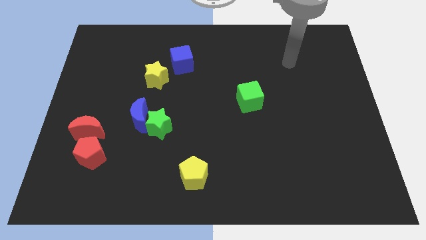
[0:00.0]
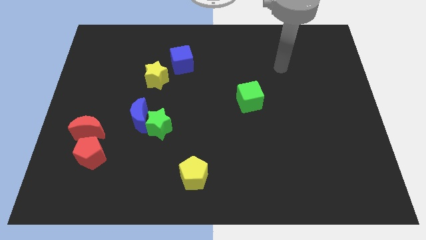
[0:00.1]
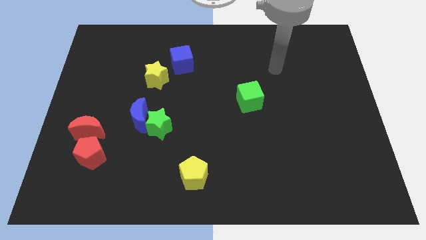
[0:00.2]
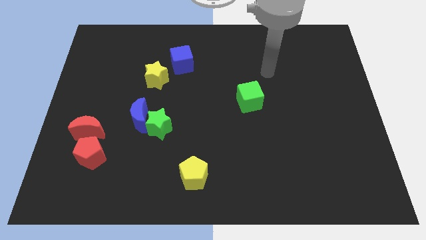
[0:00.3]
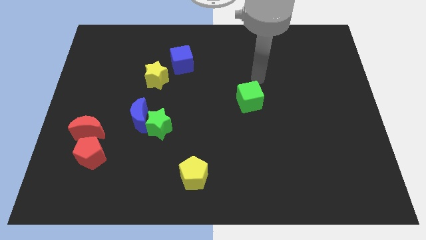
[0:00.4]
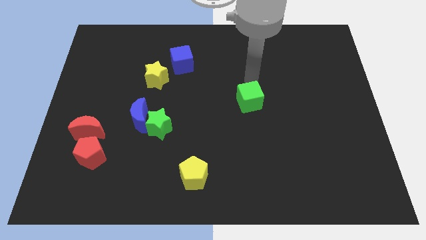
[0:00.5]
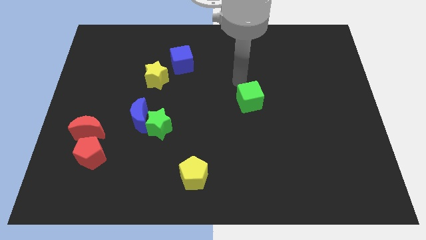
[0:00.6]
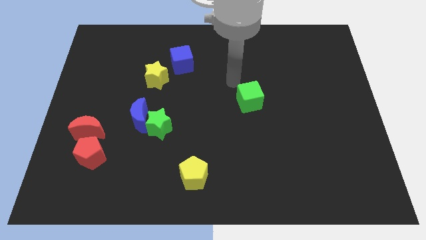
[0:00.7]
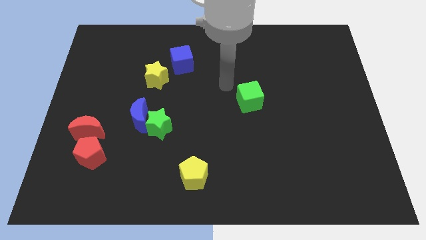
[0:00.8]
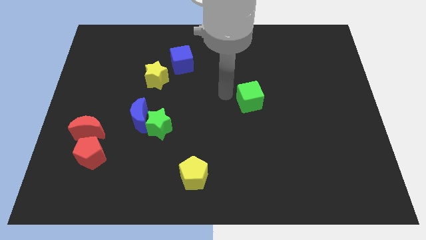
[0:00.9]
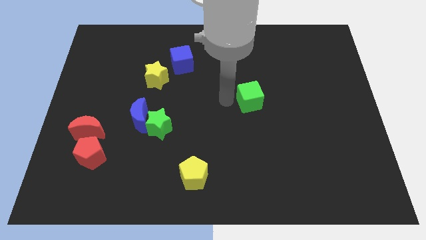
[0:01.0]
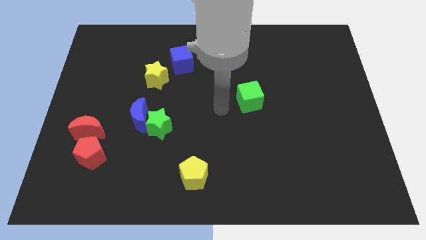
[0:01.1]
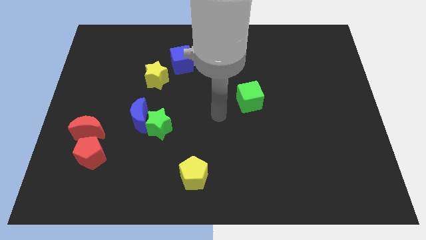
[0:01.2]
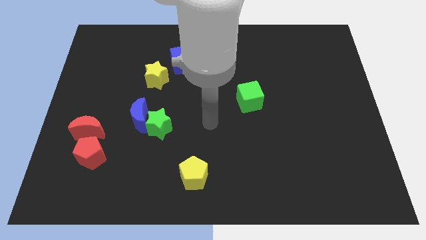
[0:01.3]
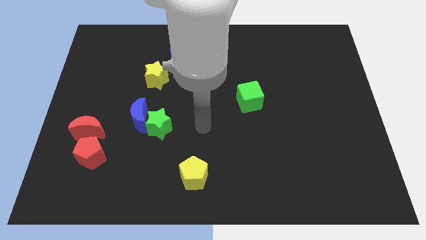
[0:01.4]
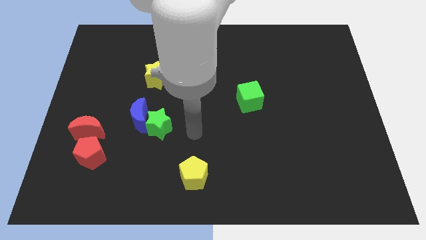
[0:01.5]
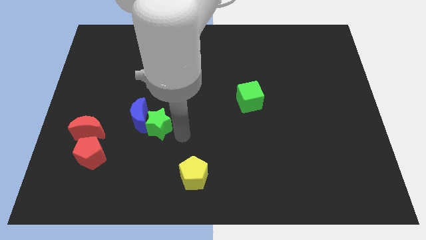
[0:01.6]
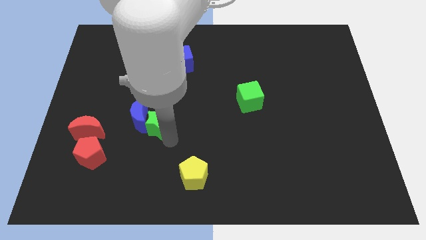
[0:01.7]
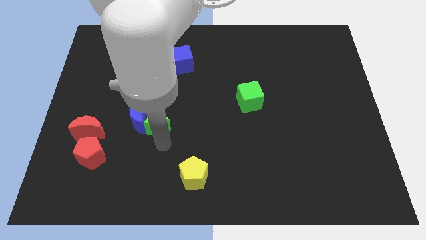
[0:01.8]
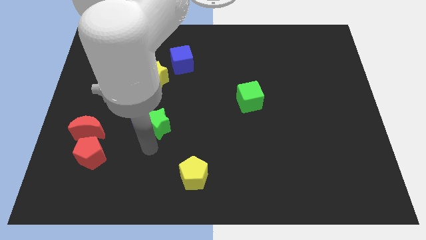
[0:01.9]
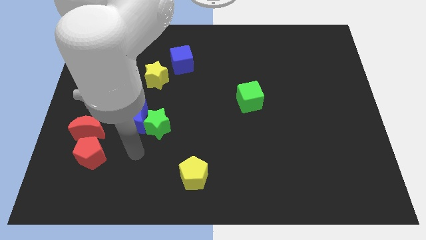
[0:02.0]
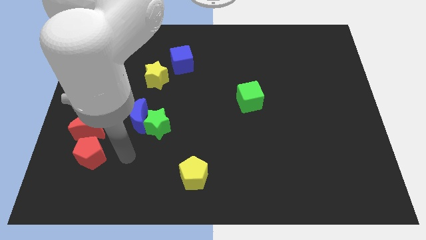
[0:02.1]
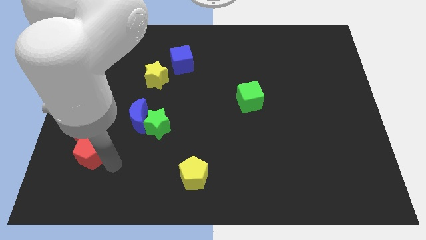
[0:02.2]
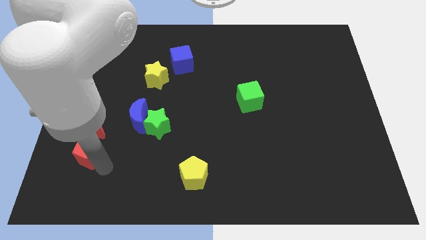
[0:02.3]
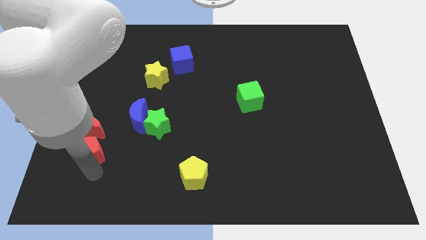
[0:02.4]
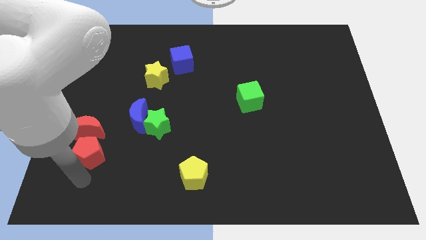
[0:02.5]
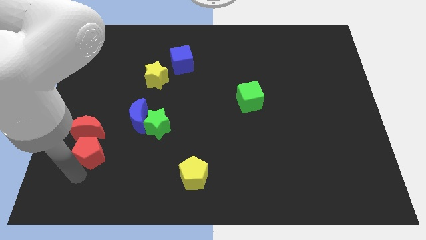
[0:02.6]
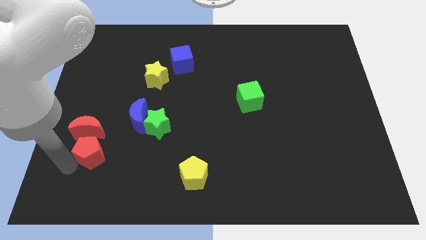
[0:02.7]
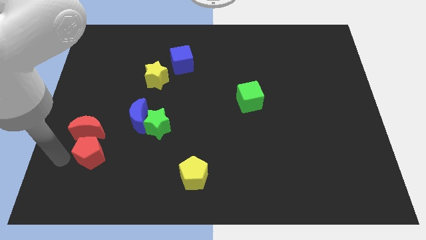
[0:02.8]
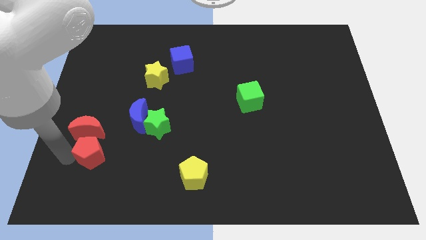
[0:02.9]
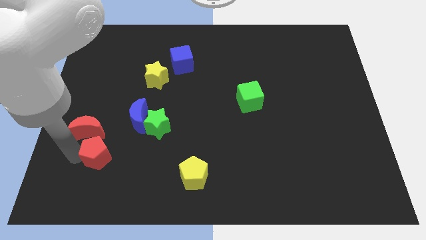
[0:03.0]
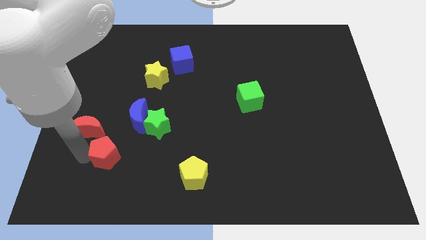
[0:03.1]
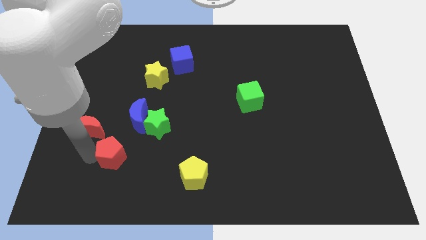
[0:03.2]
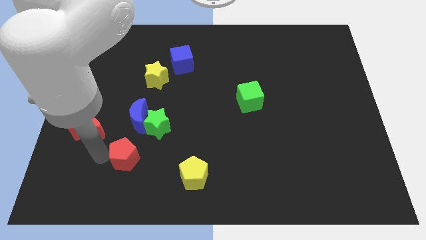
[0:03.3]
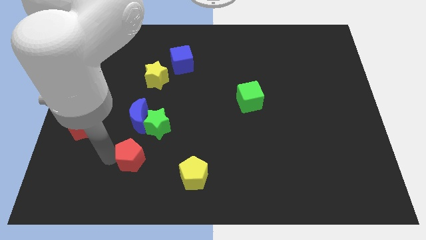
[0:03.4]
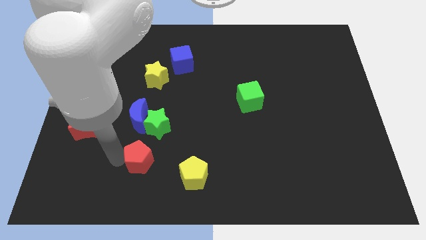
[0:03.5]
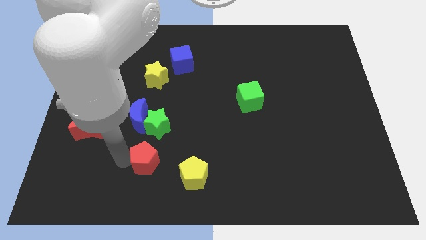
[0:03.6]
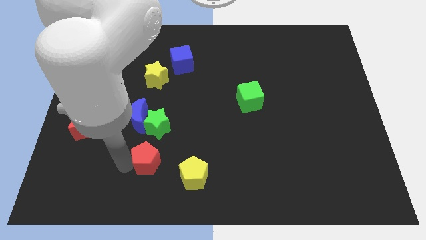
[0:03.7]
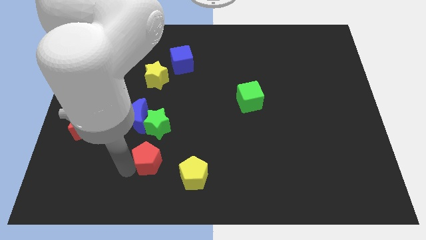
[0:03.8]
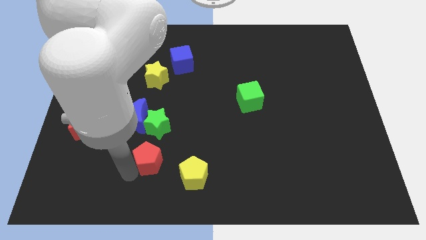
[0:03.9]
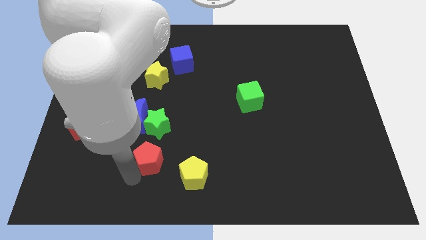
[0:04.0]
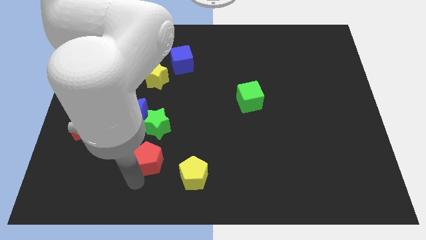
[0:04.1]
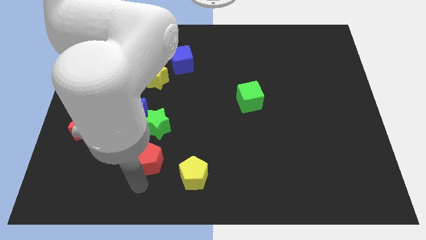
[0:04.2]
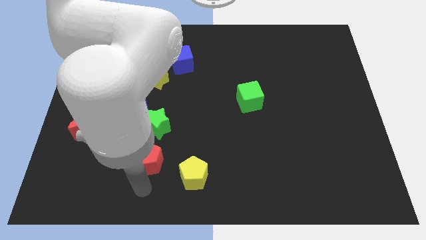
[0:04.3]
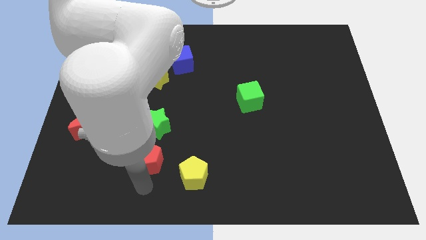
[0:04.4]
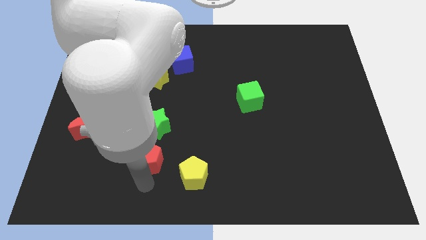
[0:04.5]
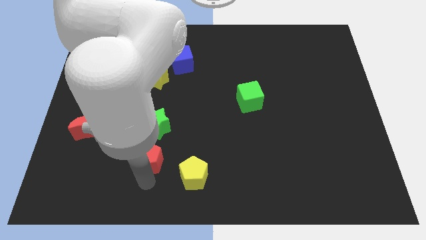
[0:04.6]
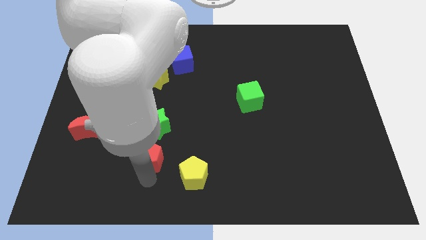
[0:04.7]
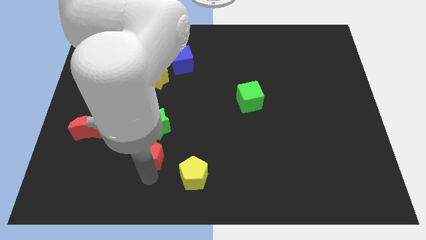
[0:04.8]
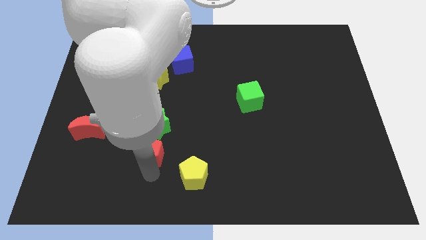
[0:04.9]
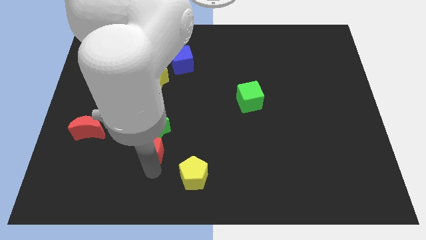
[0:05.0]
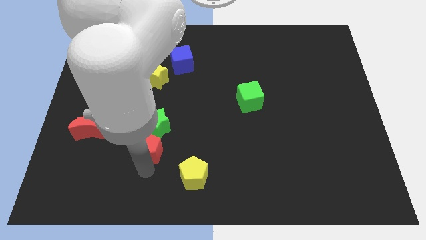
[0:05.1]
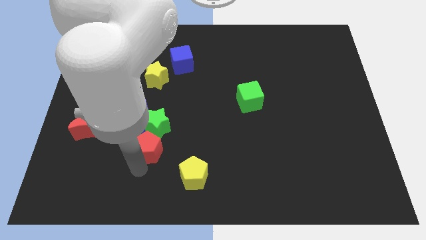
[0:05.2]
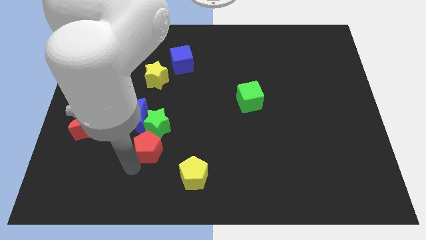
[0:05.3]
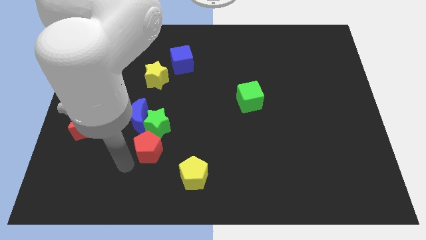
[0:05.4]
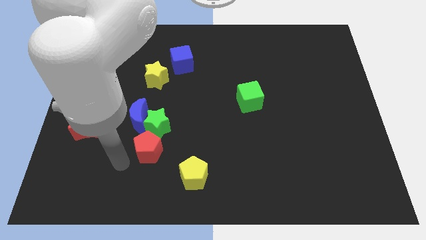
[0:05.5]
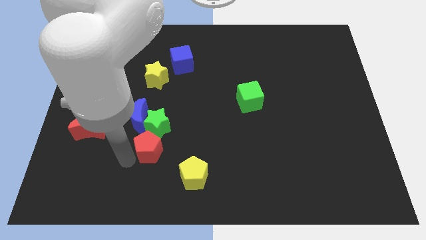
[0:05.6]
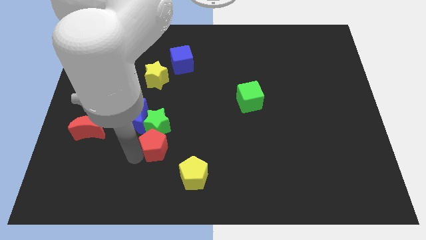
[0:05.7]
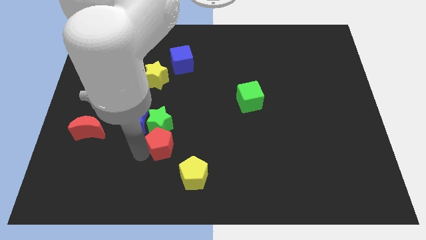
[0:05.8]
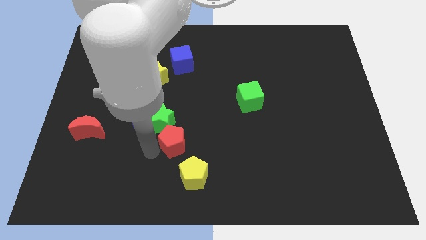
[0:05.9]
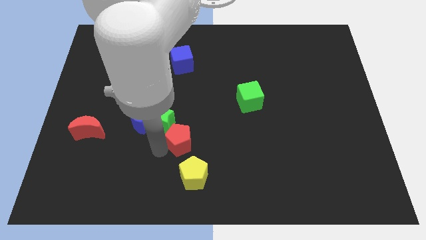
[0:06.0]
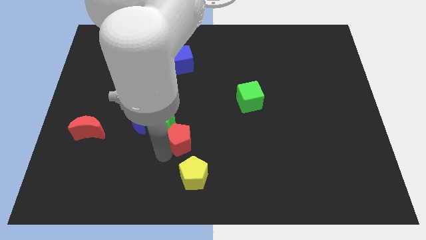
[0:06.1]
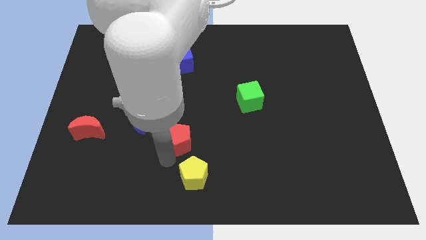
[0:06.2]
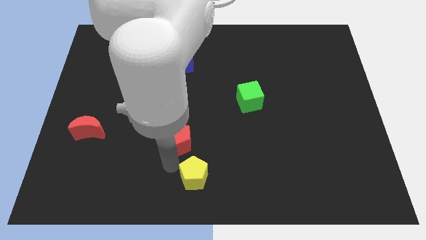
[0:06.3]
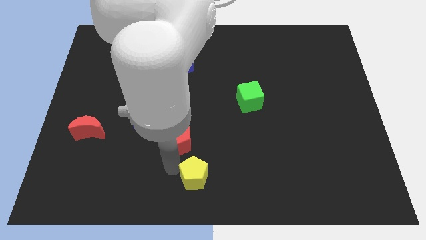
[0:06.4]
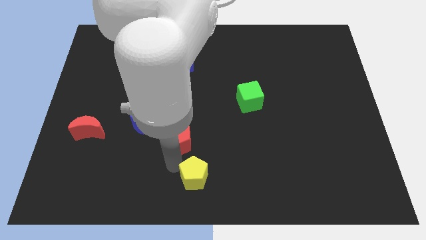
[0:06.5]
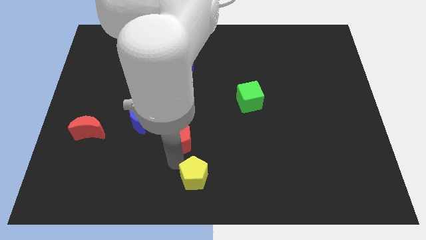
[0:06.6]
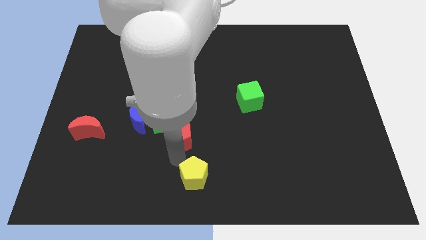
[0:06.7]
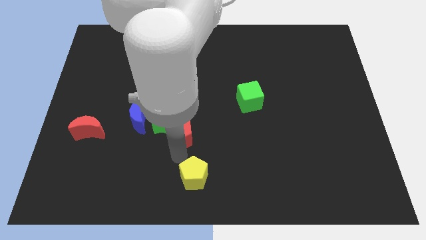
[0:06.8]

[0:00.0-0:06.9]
move the red pentagon just right of the blue moon

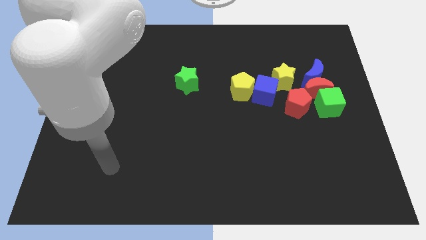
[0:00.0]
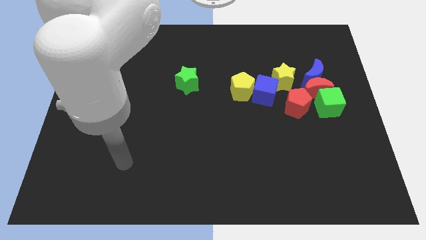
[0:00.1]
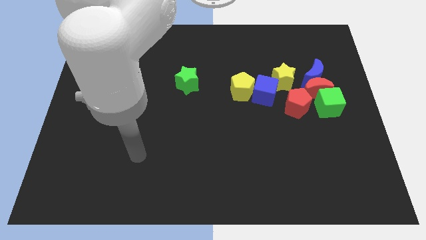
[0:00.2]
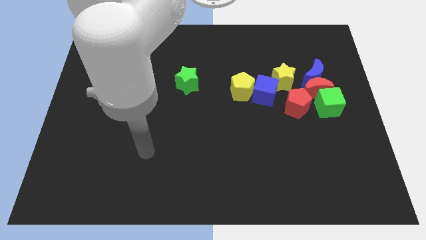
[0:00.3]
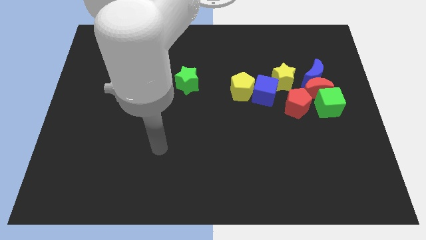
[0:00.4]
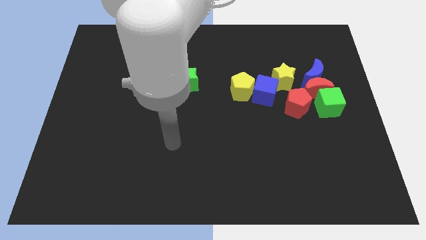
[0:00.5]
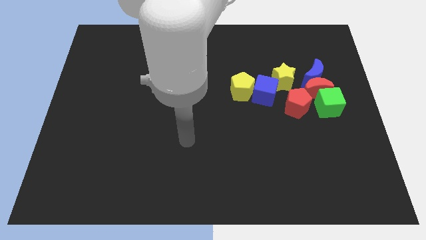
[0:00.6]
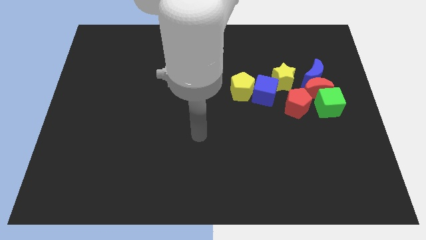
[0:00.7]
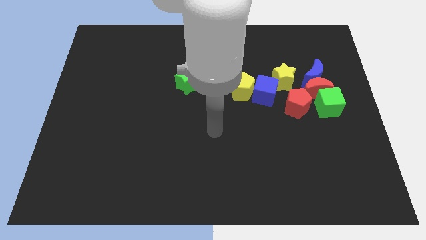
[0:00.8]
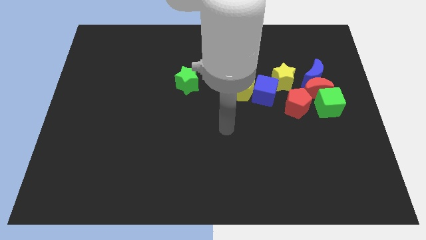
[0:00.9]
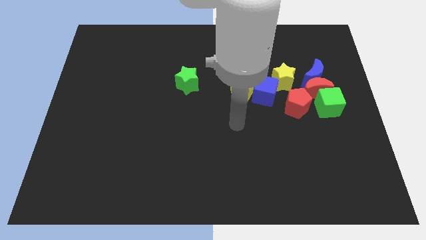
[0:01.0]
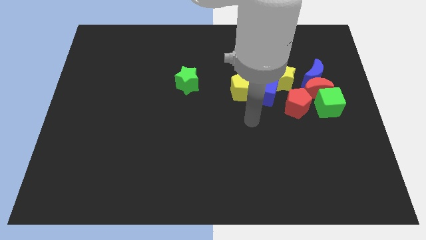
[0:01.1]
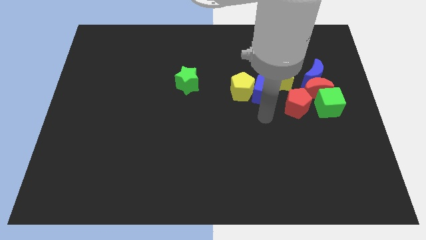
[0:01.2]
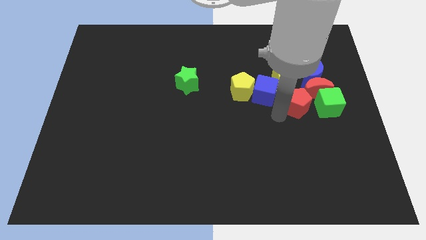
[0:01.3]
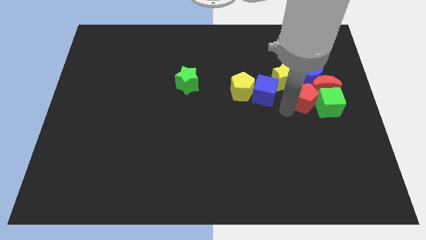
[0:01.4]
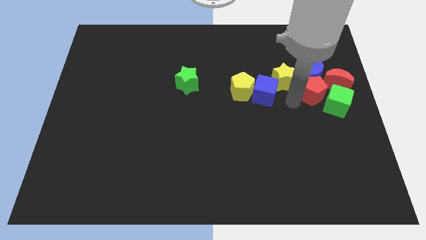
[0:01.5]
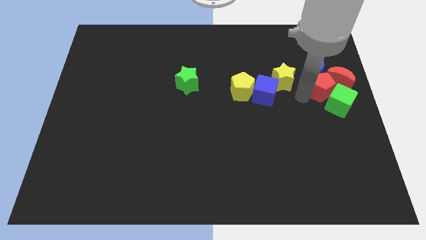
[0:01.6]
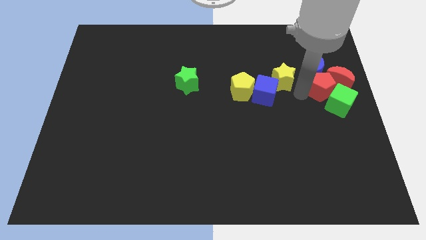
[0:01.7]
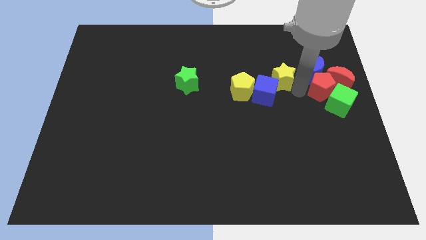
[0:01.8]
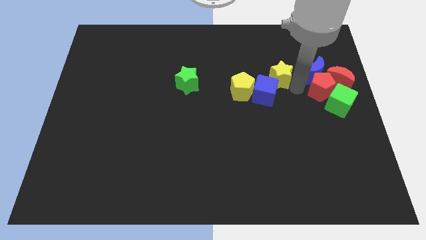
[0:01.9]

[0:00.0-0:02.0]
push the yellow star above the blue cube
